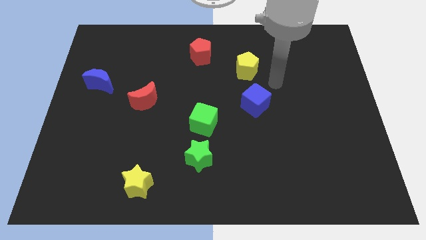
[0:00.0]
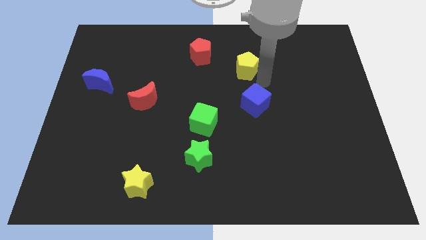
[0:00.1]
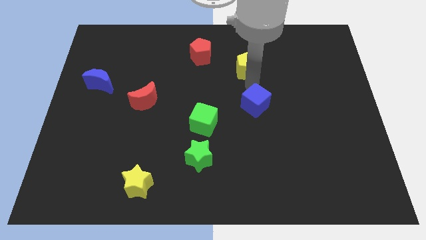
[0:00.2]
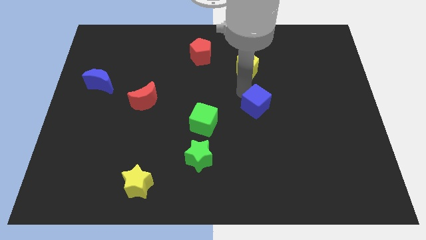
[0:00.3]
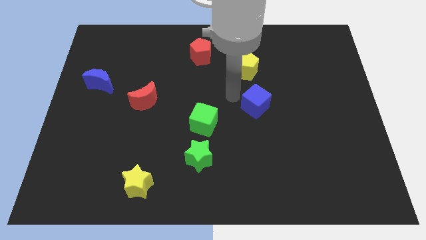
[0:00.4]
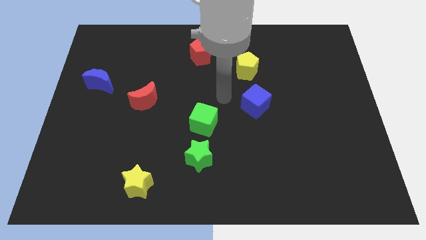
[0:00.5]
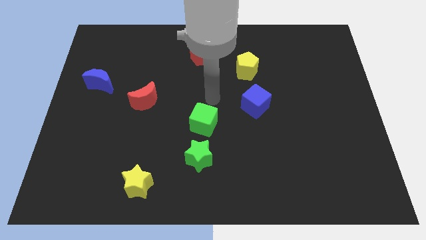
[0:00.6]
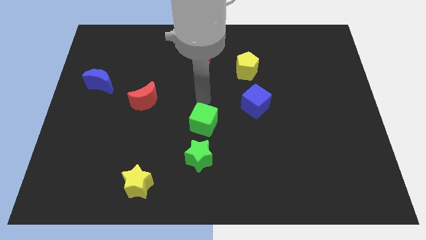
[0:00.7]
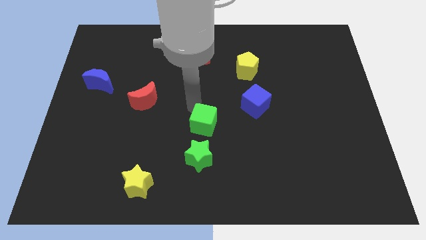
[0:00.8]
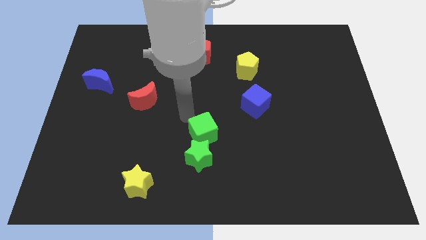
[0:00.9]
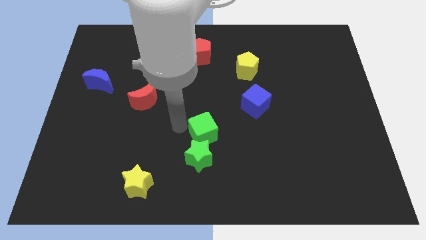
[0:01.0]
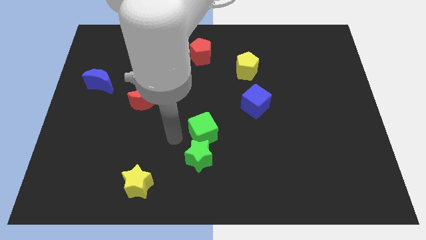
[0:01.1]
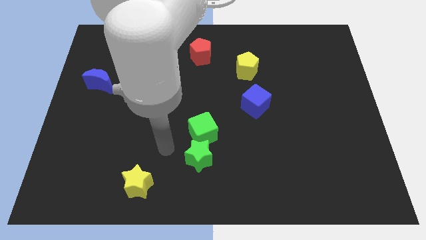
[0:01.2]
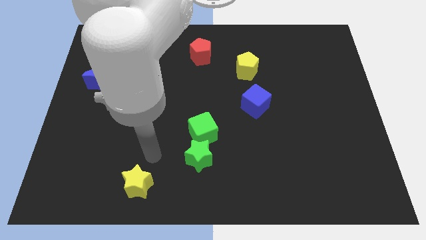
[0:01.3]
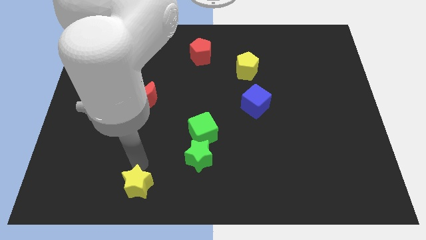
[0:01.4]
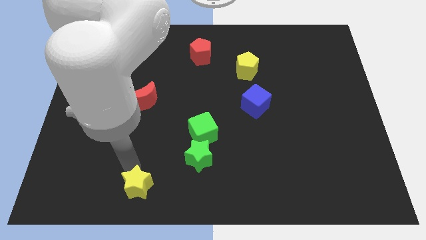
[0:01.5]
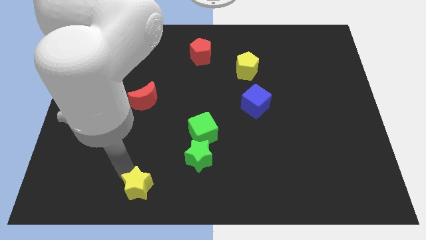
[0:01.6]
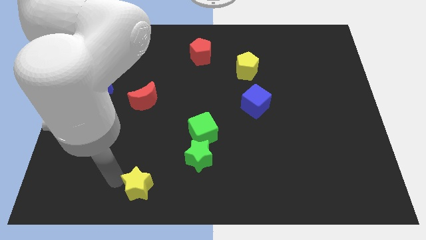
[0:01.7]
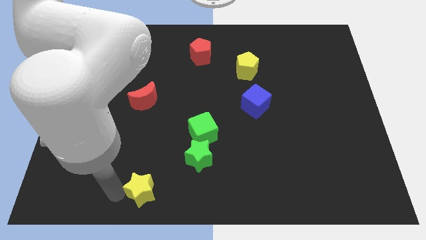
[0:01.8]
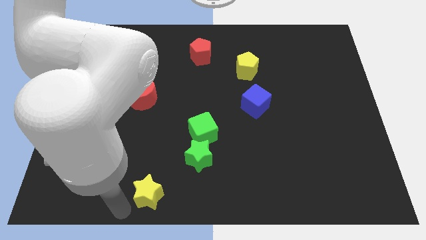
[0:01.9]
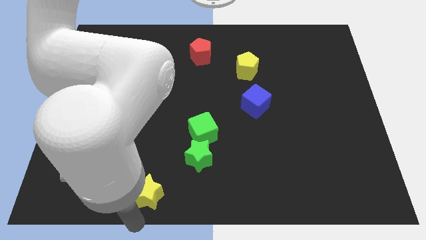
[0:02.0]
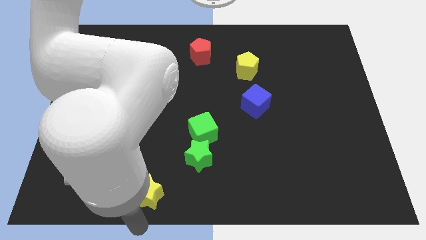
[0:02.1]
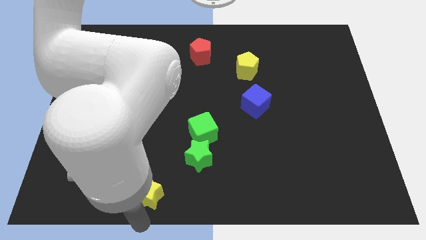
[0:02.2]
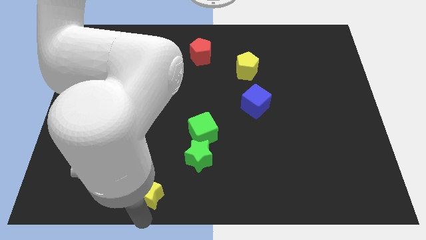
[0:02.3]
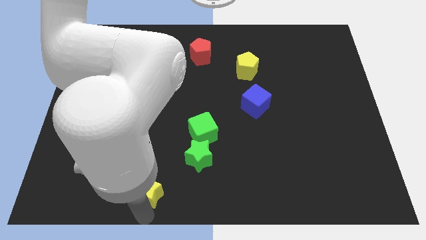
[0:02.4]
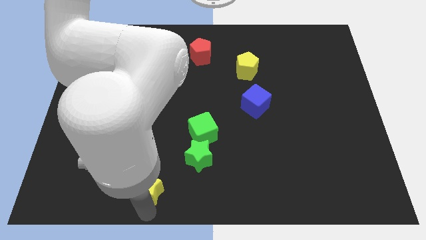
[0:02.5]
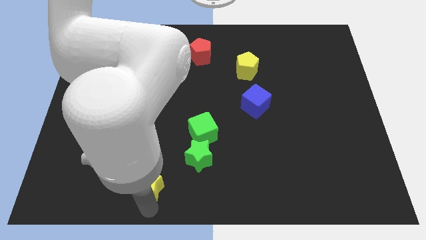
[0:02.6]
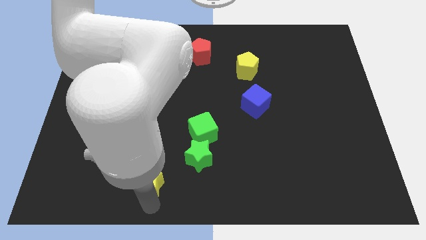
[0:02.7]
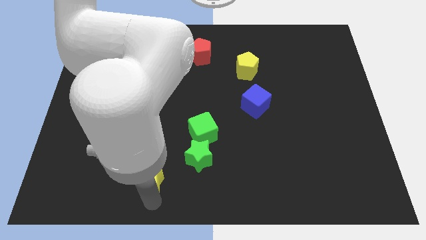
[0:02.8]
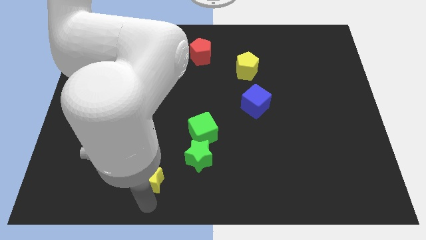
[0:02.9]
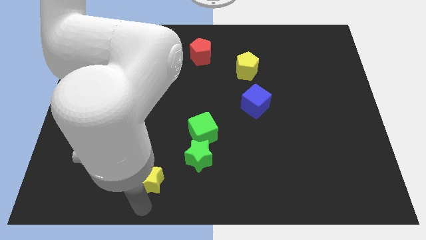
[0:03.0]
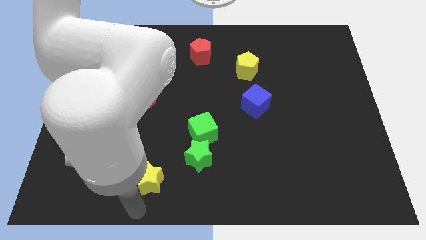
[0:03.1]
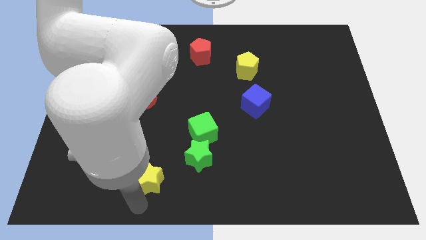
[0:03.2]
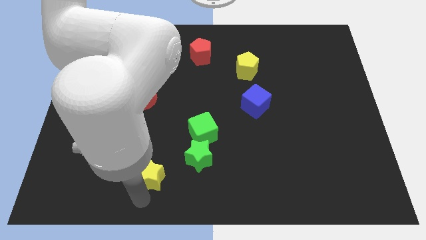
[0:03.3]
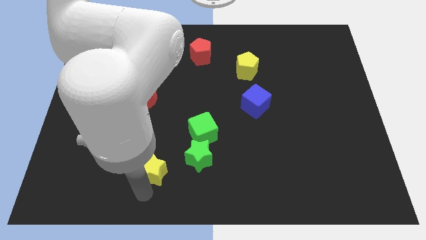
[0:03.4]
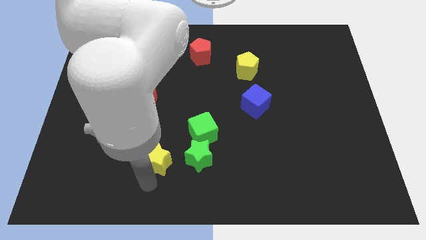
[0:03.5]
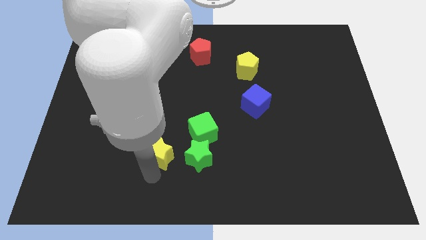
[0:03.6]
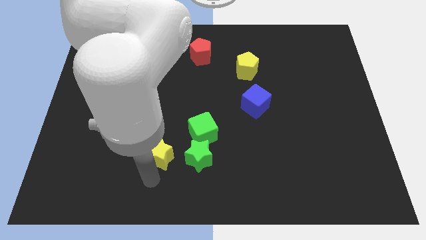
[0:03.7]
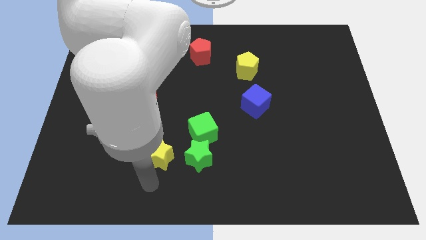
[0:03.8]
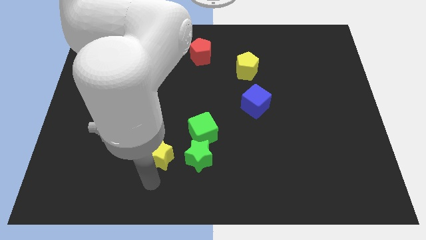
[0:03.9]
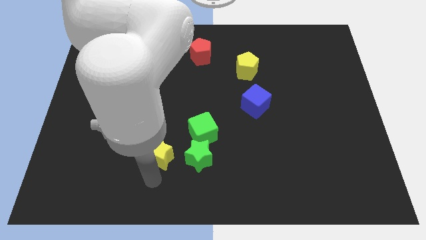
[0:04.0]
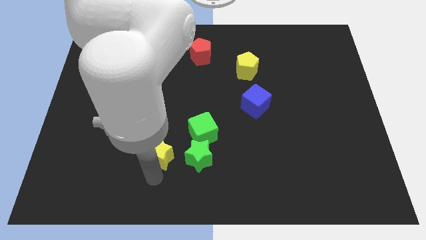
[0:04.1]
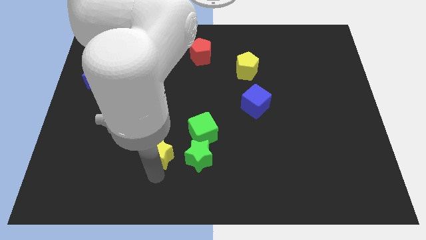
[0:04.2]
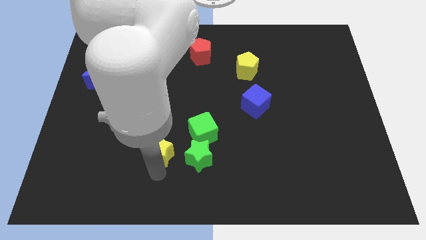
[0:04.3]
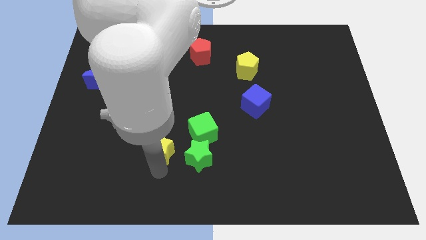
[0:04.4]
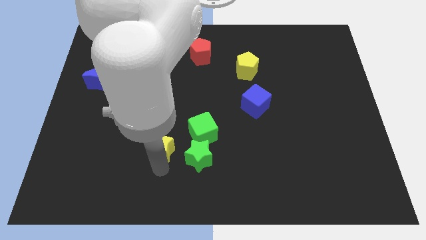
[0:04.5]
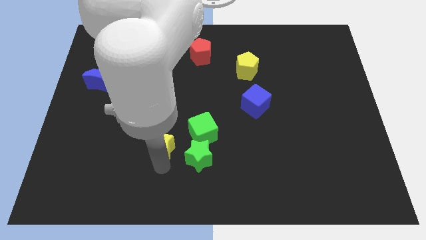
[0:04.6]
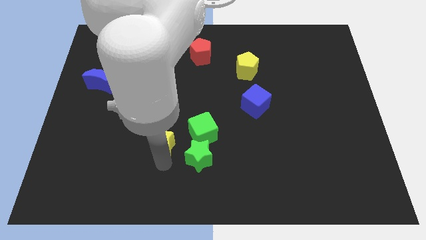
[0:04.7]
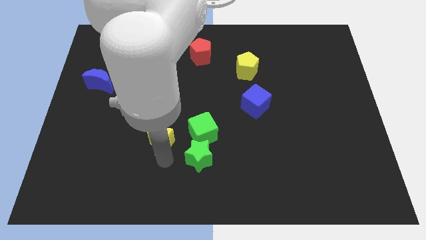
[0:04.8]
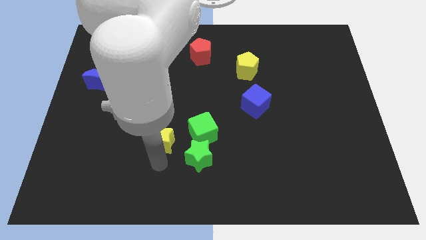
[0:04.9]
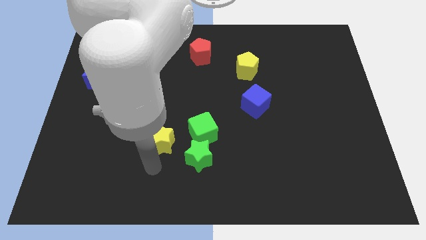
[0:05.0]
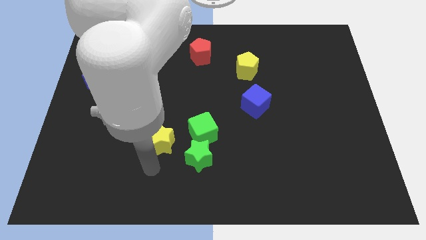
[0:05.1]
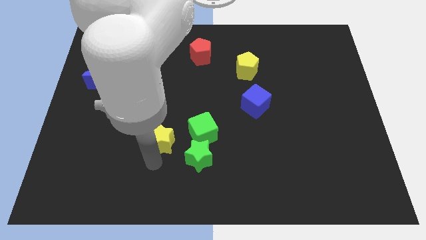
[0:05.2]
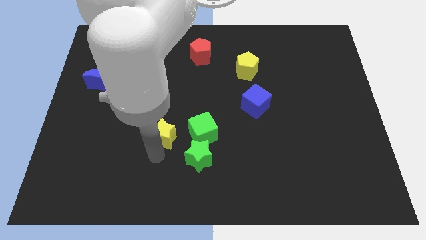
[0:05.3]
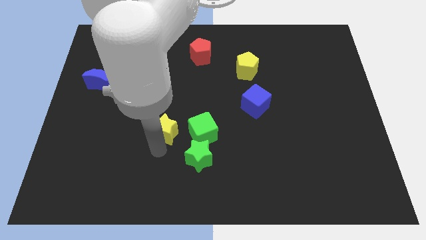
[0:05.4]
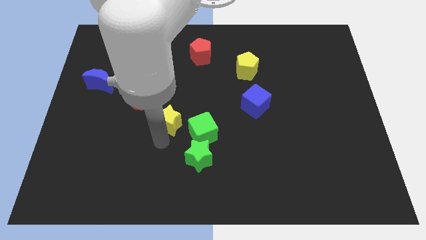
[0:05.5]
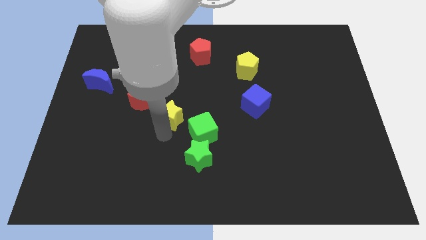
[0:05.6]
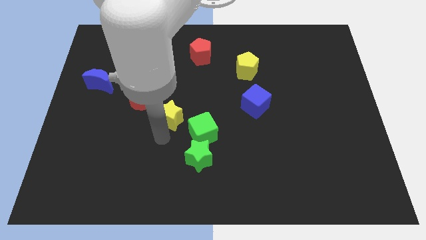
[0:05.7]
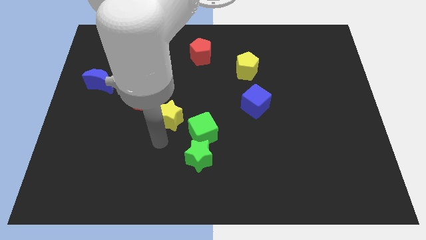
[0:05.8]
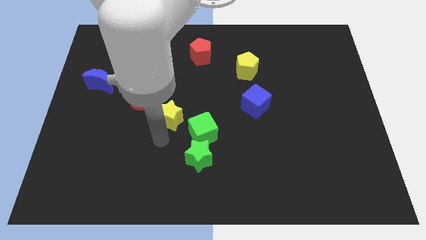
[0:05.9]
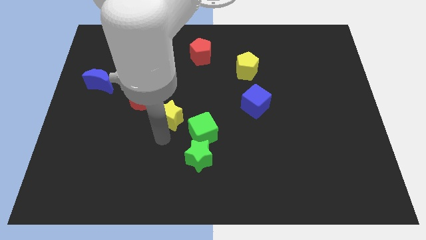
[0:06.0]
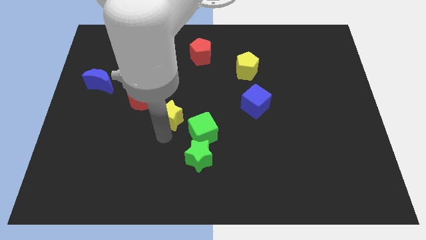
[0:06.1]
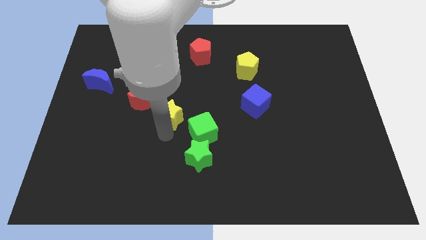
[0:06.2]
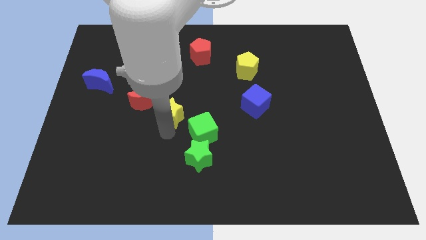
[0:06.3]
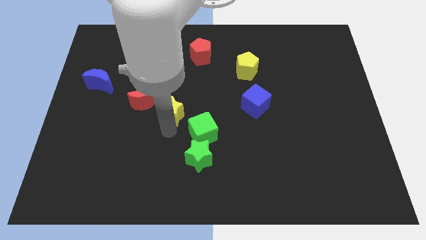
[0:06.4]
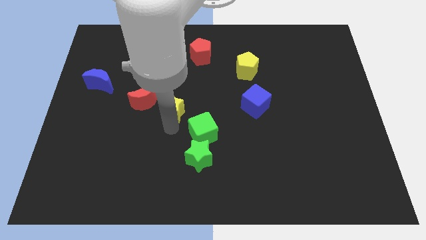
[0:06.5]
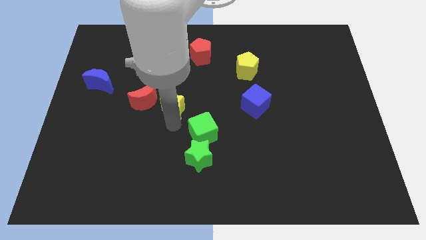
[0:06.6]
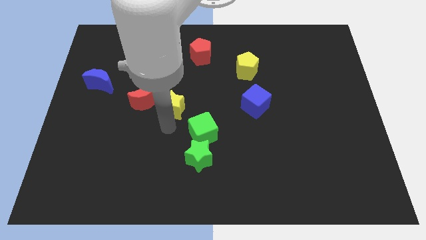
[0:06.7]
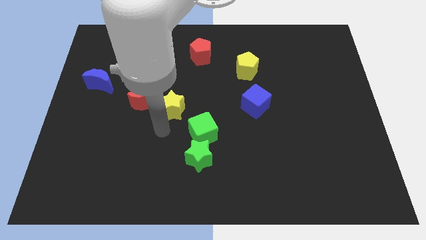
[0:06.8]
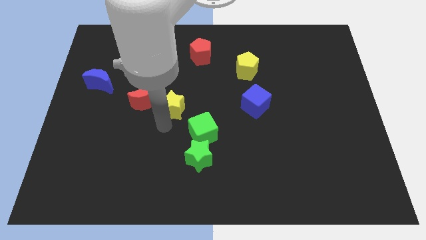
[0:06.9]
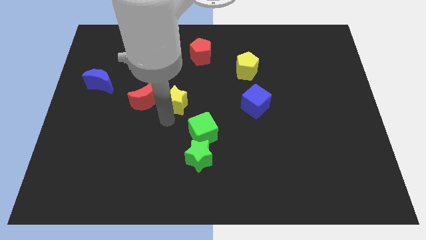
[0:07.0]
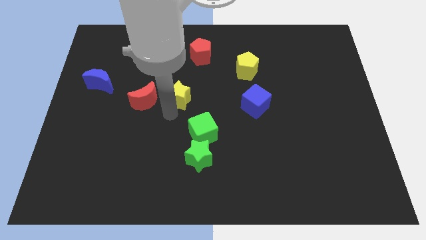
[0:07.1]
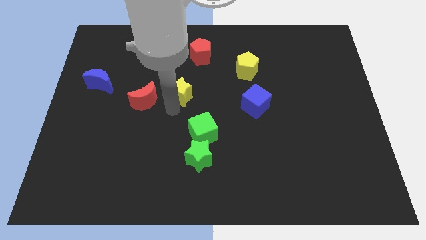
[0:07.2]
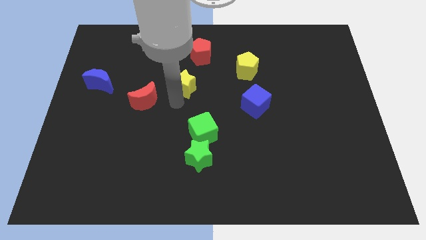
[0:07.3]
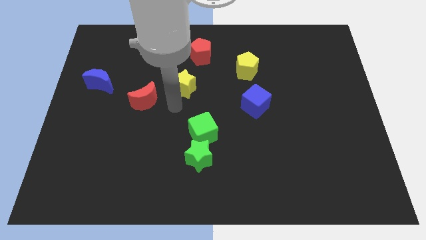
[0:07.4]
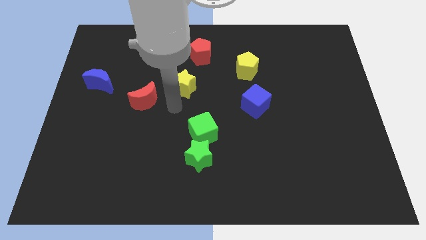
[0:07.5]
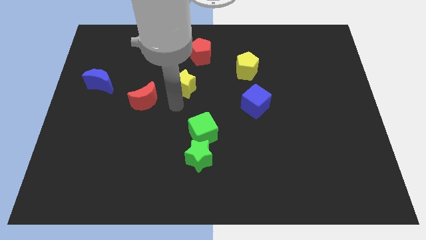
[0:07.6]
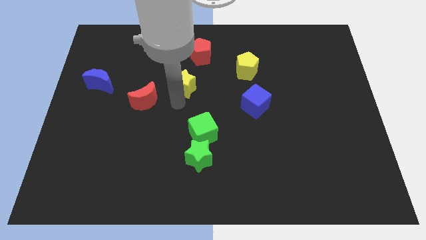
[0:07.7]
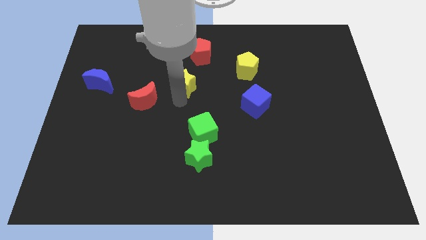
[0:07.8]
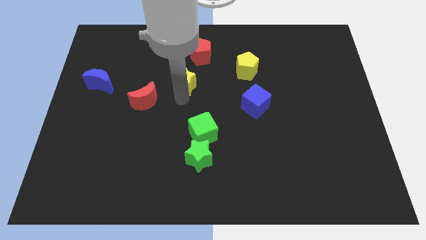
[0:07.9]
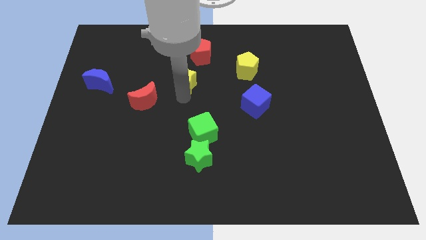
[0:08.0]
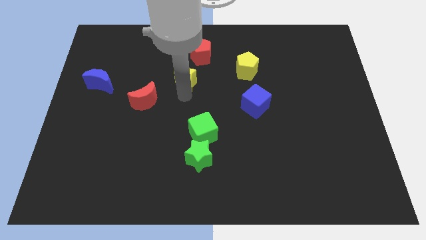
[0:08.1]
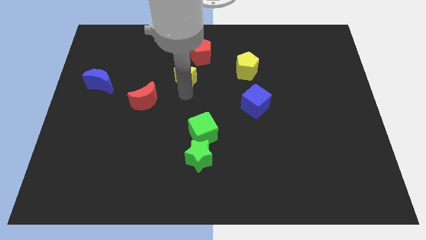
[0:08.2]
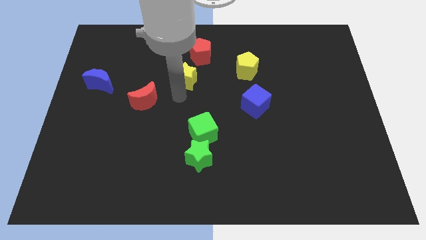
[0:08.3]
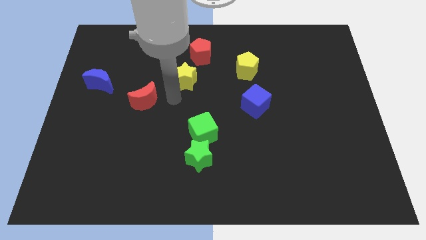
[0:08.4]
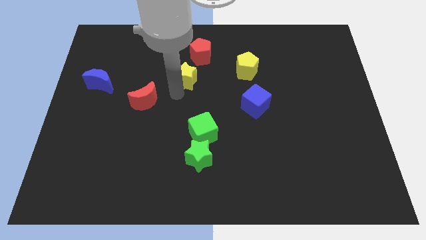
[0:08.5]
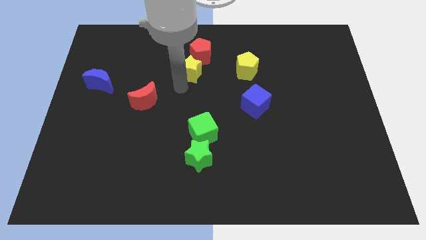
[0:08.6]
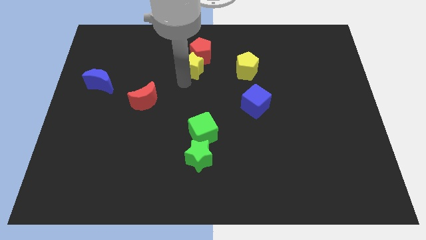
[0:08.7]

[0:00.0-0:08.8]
push the yellow star towards the red pentagon
